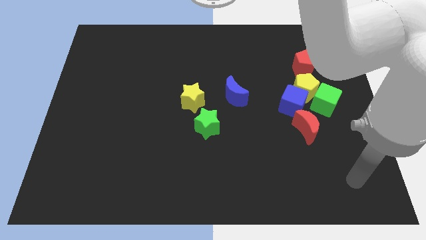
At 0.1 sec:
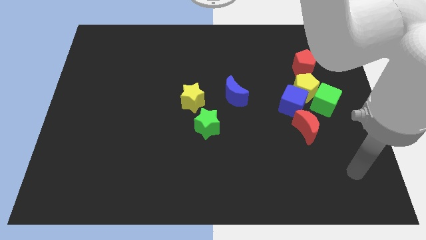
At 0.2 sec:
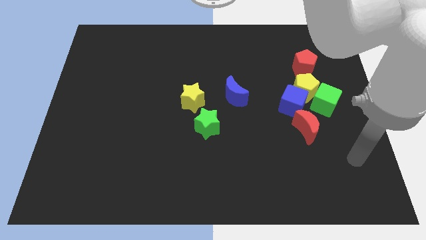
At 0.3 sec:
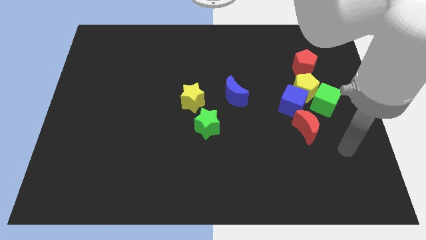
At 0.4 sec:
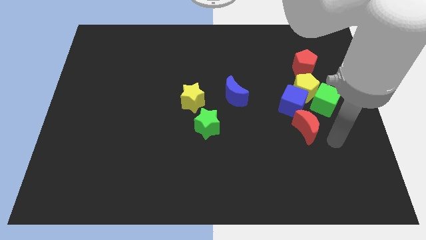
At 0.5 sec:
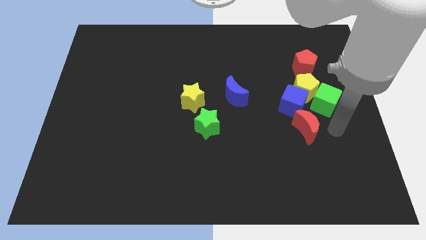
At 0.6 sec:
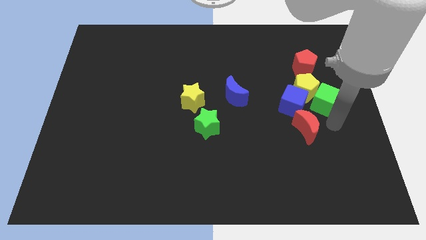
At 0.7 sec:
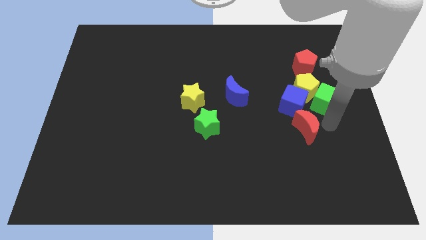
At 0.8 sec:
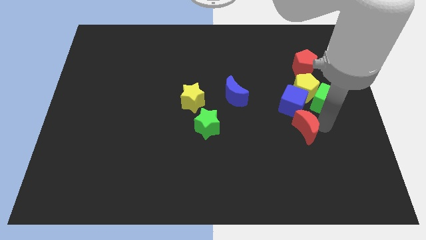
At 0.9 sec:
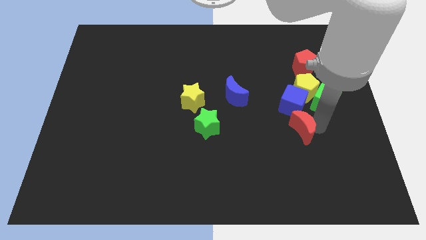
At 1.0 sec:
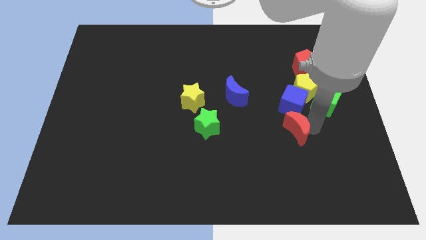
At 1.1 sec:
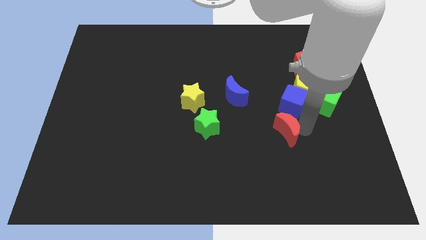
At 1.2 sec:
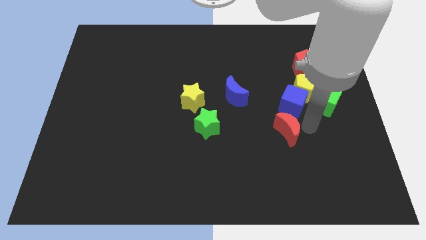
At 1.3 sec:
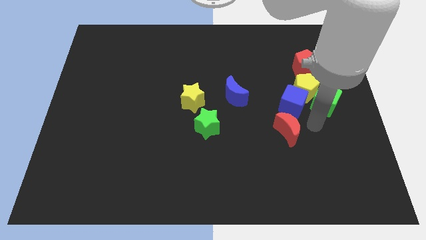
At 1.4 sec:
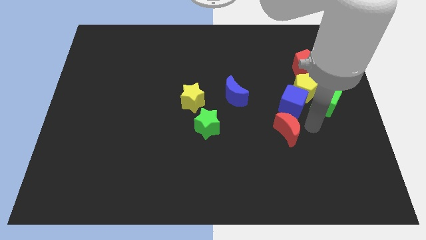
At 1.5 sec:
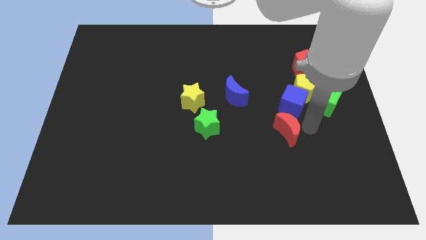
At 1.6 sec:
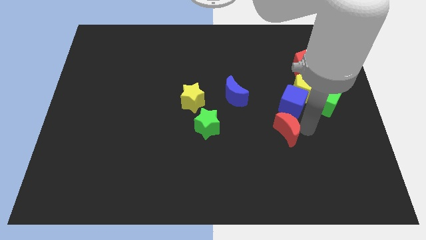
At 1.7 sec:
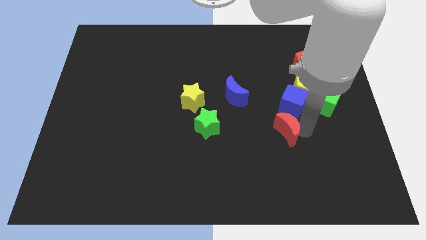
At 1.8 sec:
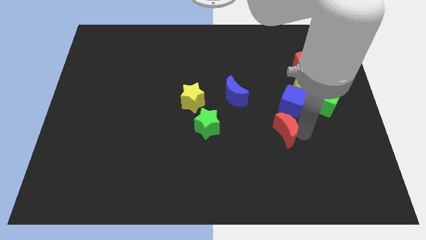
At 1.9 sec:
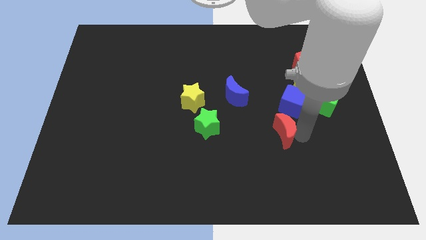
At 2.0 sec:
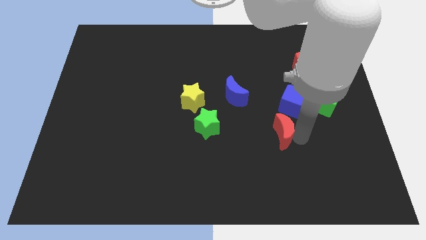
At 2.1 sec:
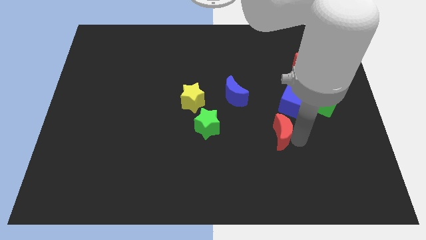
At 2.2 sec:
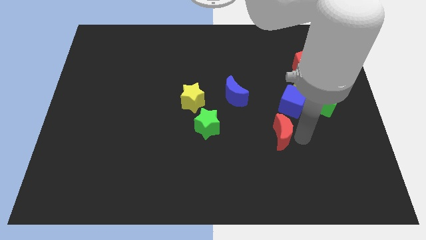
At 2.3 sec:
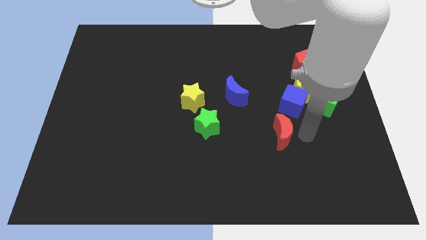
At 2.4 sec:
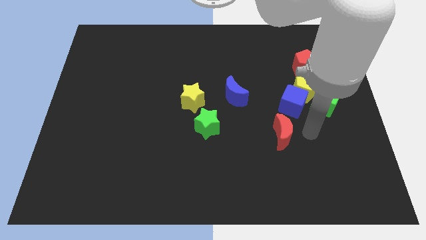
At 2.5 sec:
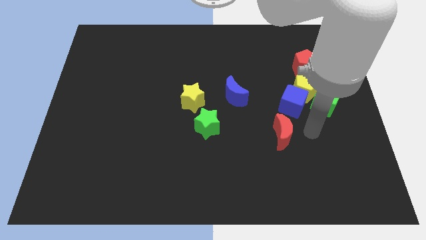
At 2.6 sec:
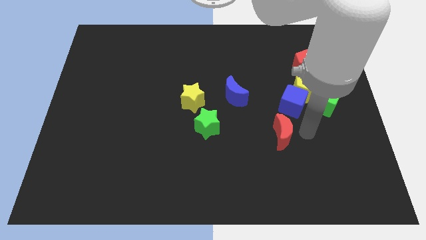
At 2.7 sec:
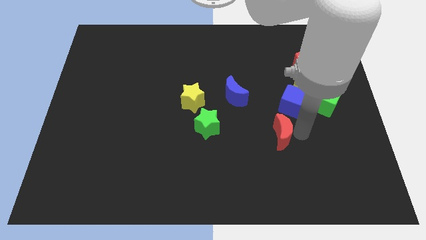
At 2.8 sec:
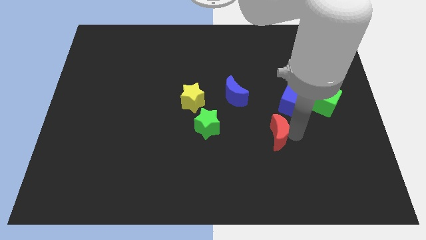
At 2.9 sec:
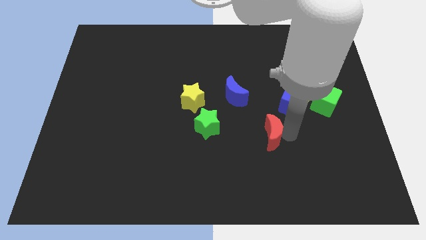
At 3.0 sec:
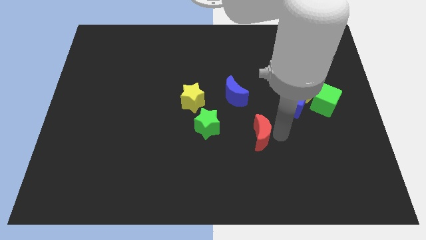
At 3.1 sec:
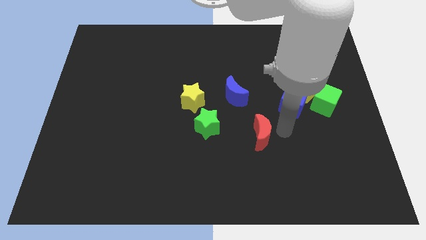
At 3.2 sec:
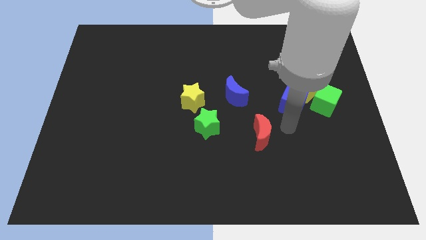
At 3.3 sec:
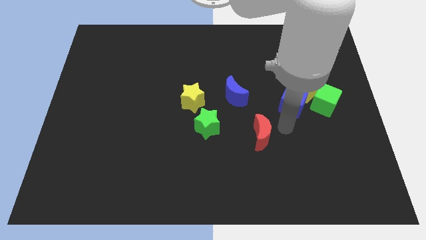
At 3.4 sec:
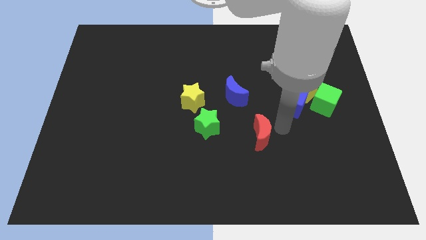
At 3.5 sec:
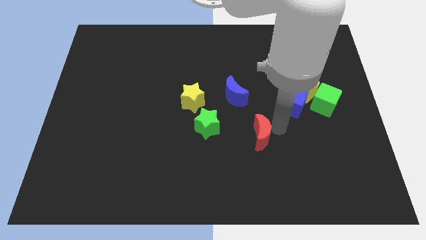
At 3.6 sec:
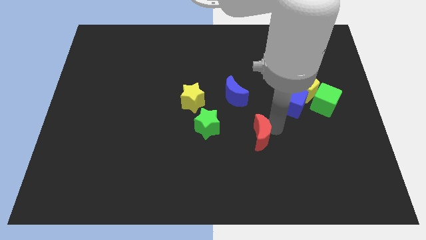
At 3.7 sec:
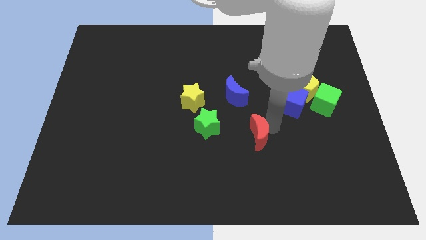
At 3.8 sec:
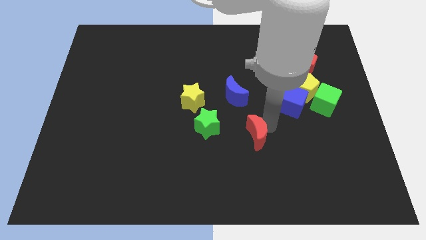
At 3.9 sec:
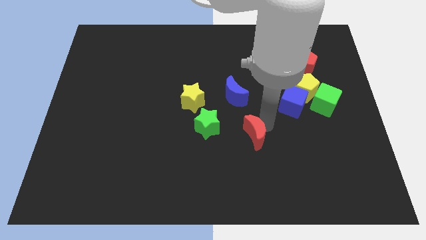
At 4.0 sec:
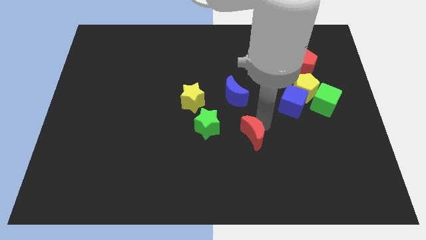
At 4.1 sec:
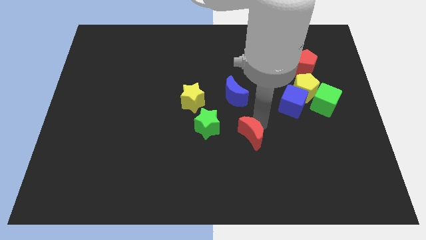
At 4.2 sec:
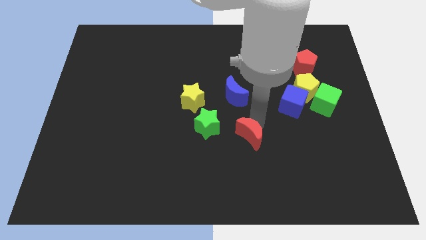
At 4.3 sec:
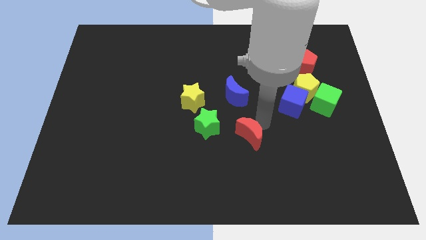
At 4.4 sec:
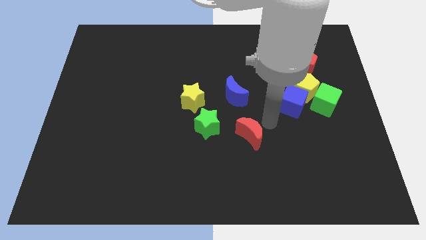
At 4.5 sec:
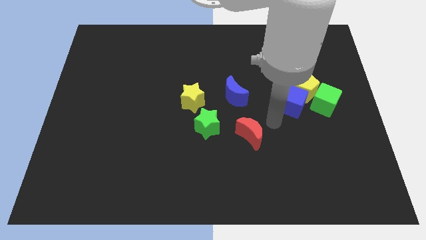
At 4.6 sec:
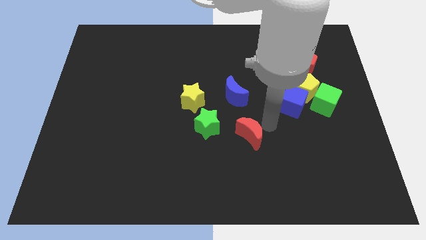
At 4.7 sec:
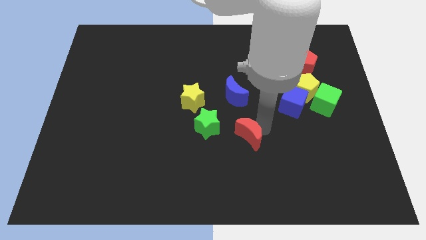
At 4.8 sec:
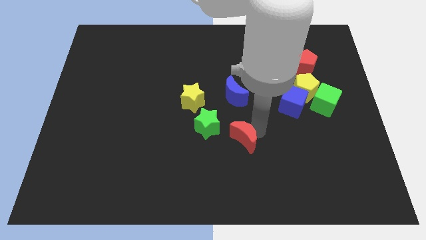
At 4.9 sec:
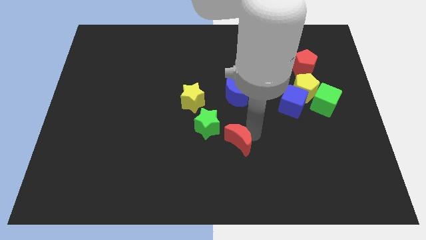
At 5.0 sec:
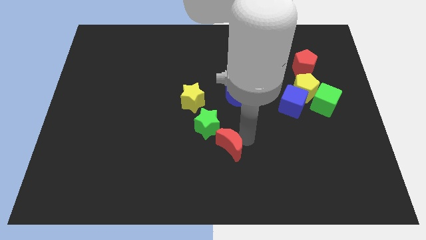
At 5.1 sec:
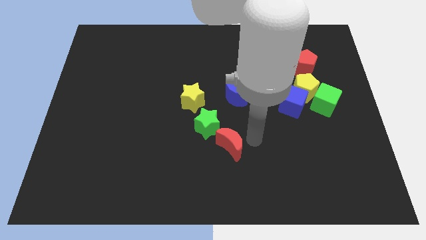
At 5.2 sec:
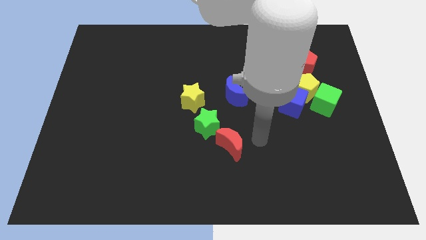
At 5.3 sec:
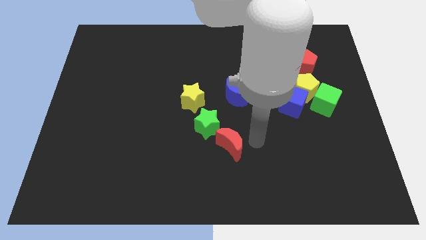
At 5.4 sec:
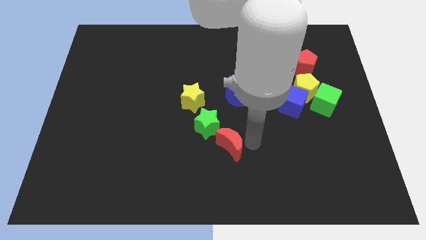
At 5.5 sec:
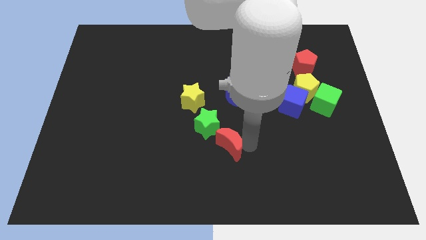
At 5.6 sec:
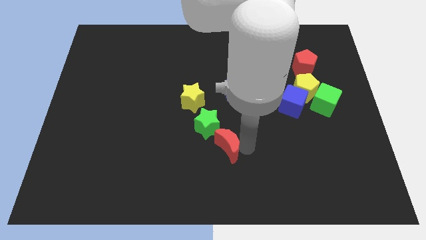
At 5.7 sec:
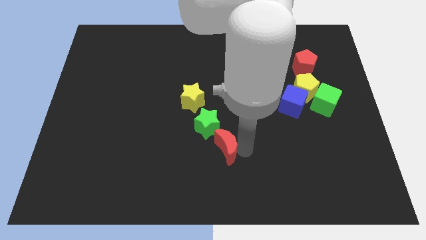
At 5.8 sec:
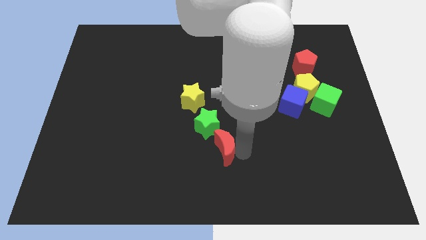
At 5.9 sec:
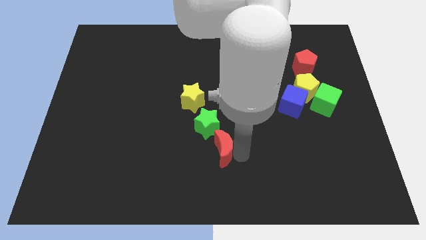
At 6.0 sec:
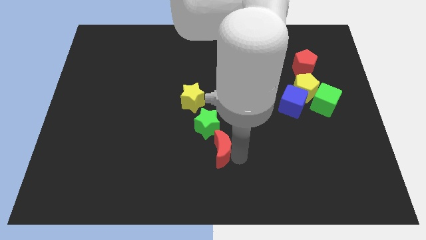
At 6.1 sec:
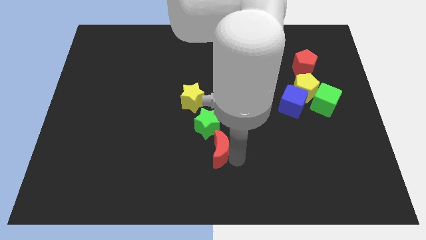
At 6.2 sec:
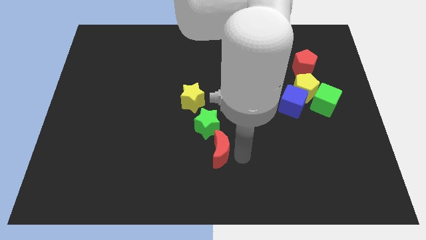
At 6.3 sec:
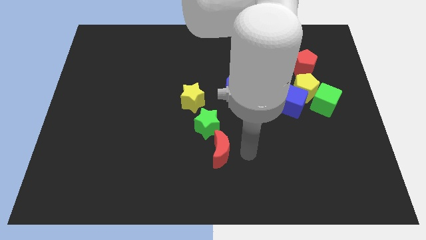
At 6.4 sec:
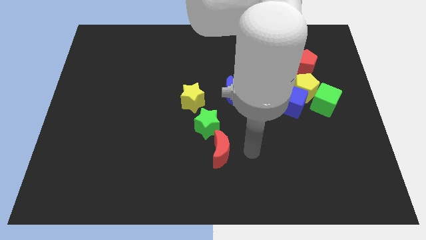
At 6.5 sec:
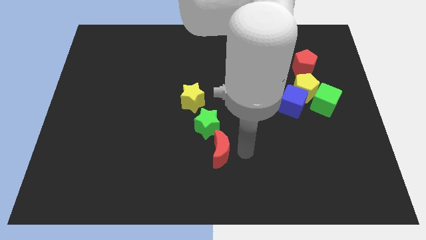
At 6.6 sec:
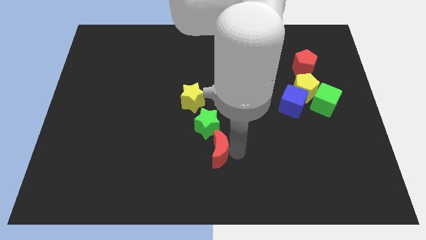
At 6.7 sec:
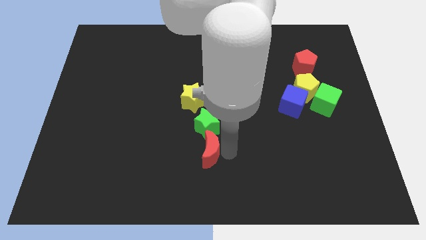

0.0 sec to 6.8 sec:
slide the red moon to the bottom of the yellow star

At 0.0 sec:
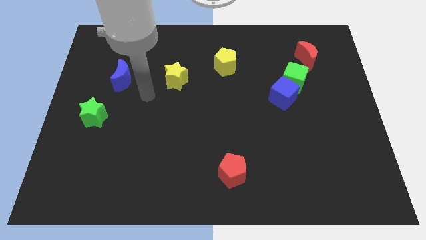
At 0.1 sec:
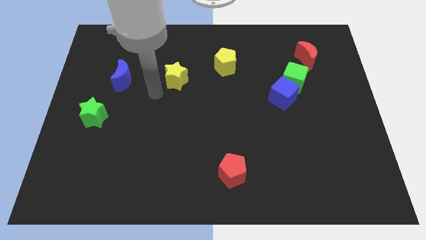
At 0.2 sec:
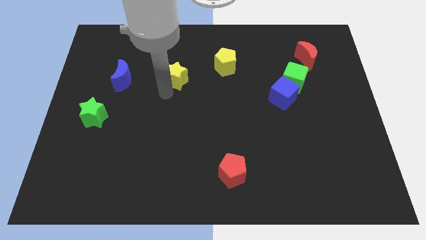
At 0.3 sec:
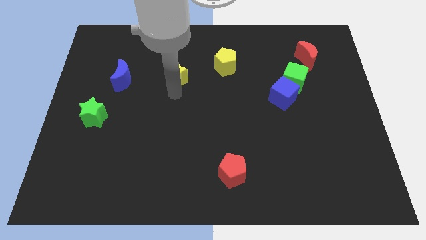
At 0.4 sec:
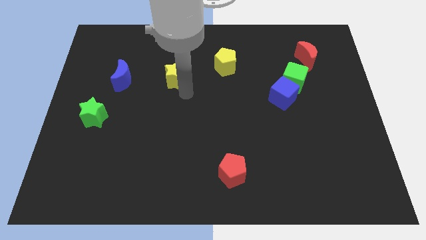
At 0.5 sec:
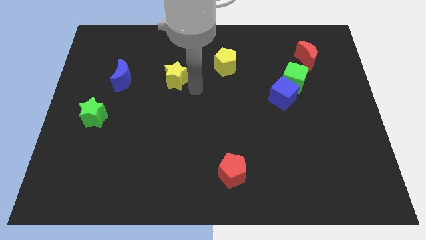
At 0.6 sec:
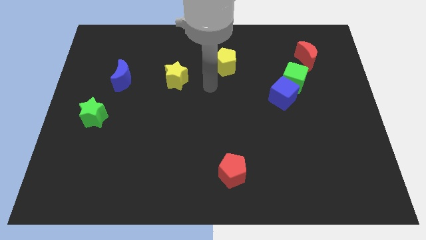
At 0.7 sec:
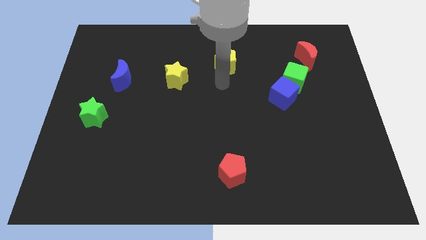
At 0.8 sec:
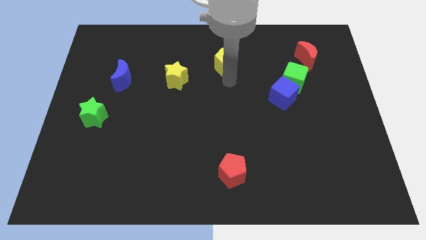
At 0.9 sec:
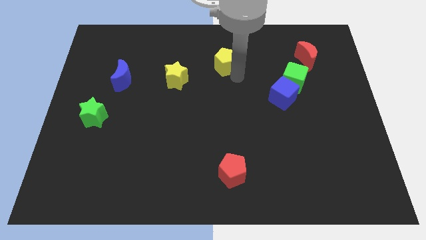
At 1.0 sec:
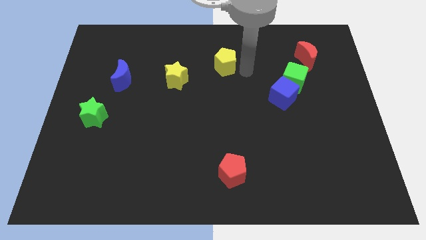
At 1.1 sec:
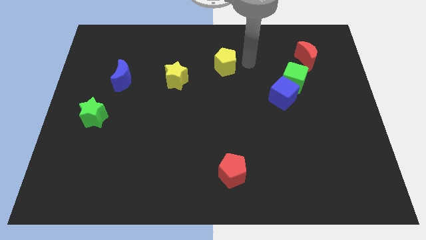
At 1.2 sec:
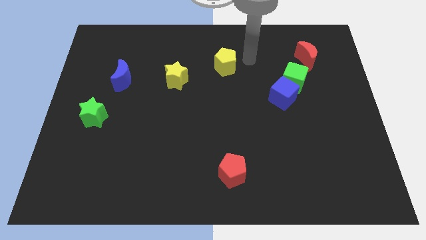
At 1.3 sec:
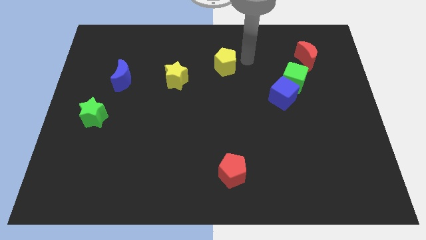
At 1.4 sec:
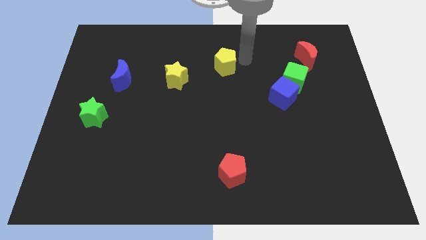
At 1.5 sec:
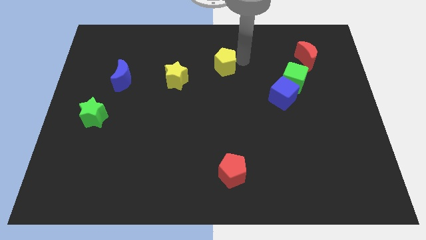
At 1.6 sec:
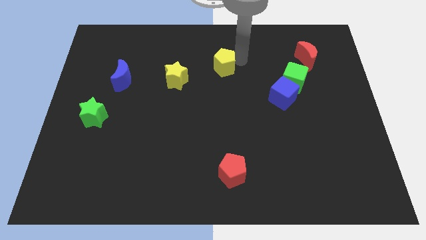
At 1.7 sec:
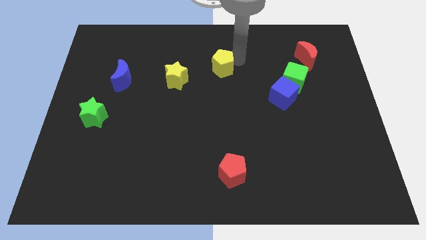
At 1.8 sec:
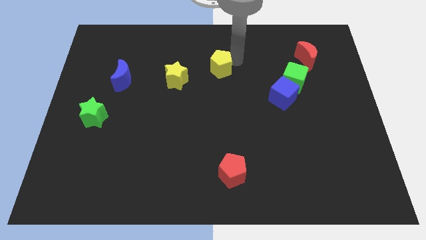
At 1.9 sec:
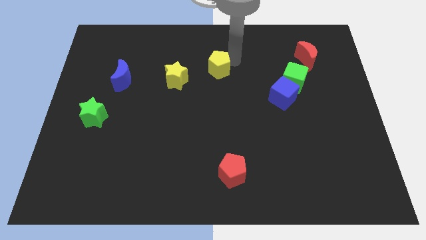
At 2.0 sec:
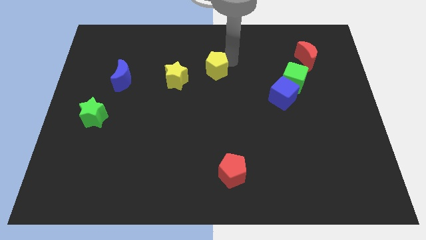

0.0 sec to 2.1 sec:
put the yellow pentagon to the top right of the yellow star
